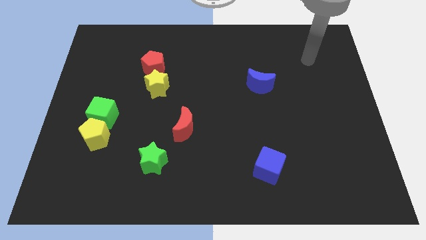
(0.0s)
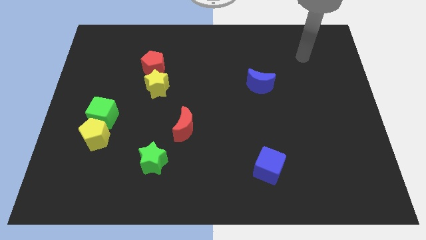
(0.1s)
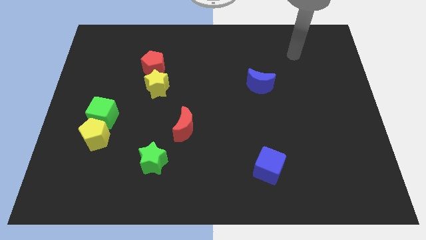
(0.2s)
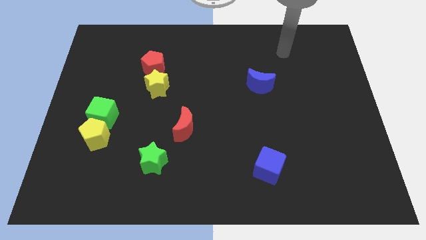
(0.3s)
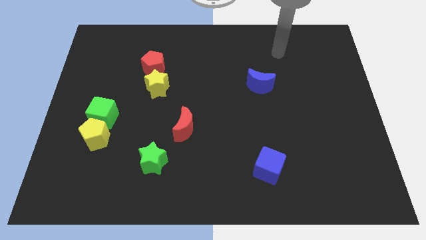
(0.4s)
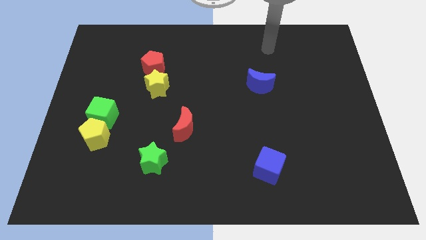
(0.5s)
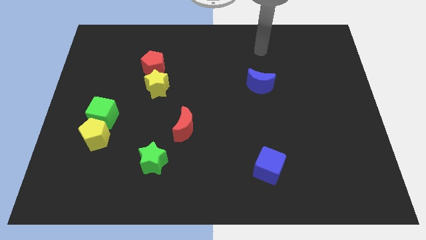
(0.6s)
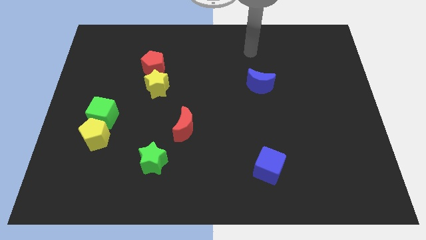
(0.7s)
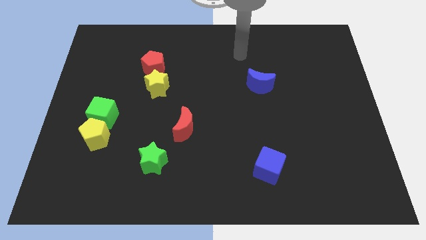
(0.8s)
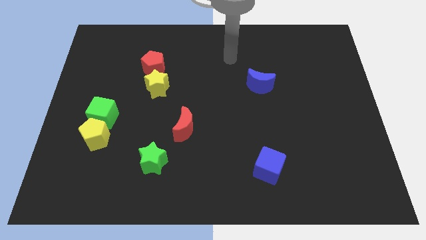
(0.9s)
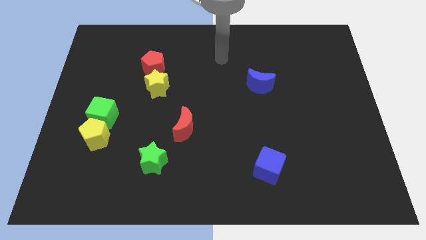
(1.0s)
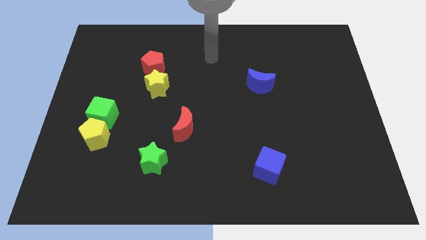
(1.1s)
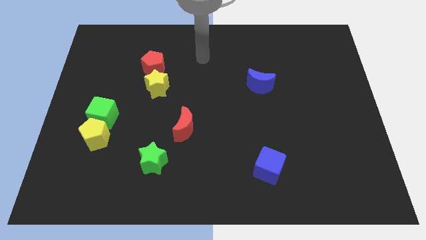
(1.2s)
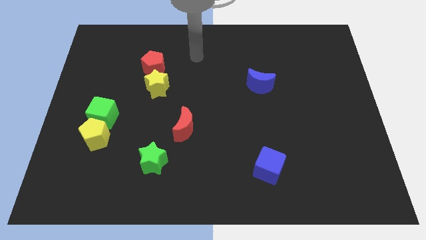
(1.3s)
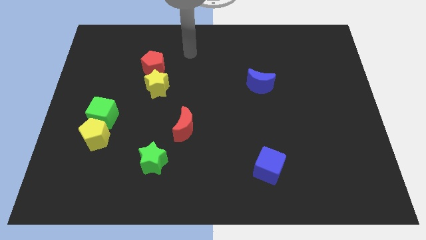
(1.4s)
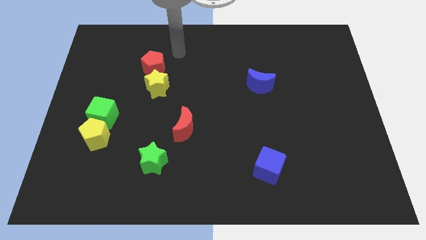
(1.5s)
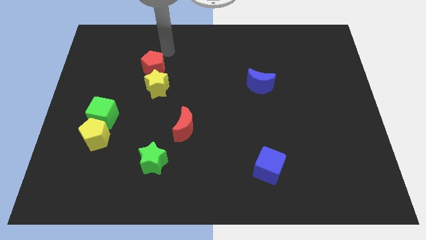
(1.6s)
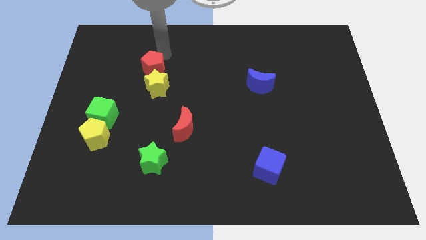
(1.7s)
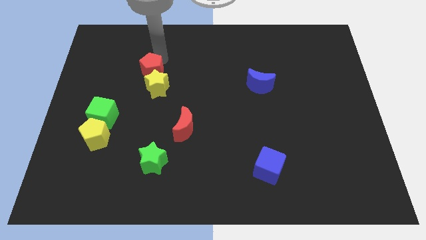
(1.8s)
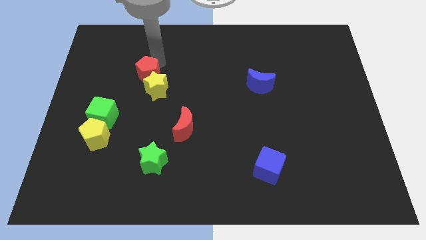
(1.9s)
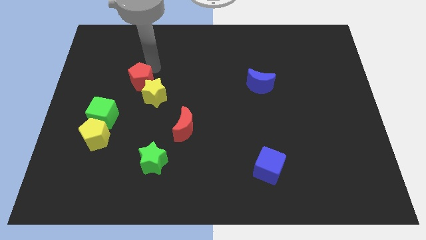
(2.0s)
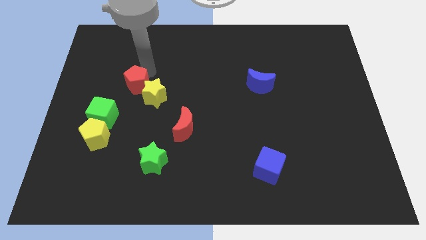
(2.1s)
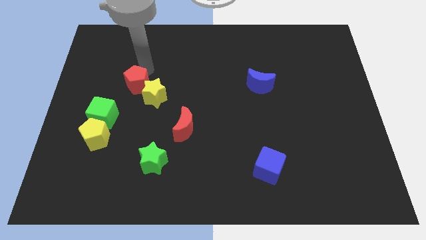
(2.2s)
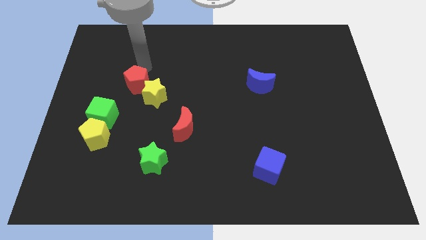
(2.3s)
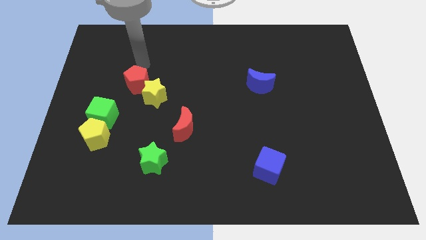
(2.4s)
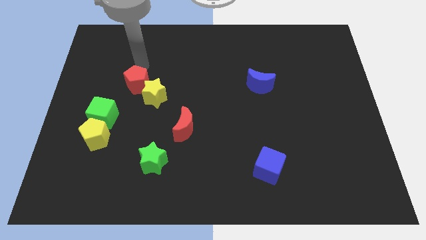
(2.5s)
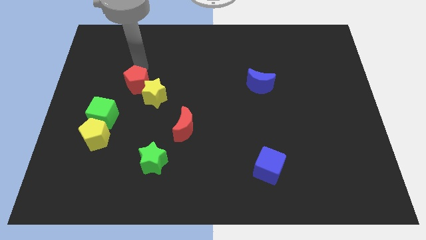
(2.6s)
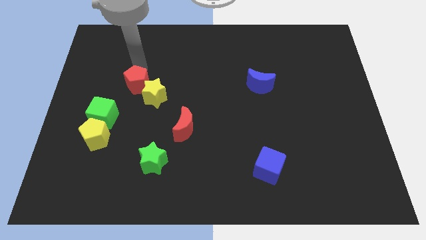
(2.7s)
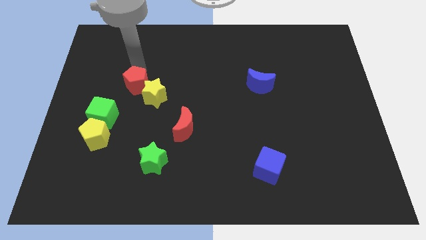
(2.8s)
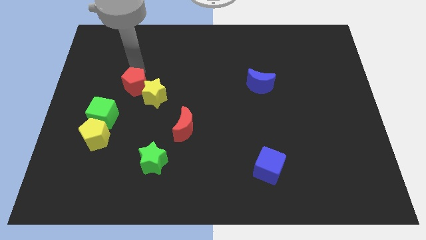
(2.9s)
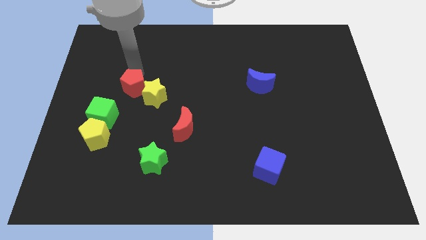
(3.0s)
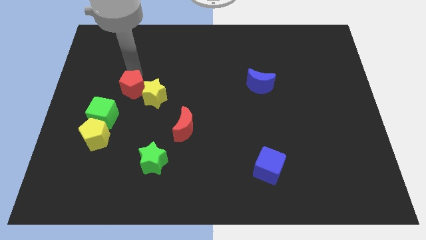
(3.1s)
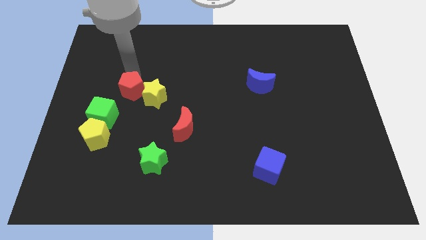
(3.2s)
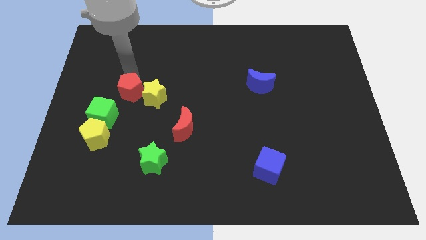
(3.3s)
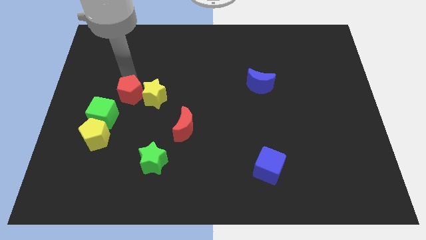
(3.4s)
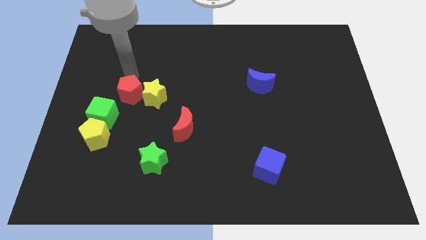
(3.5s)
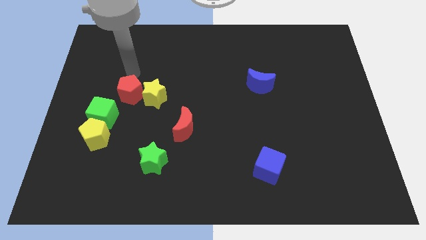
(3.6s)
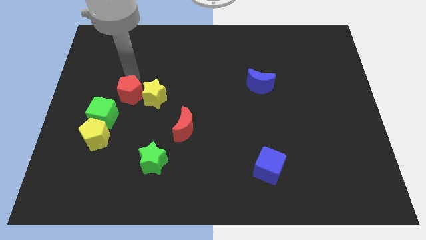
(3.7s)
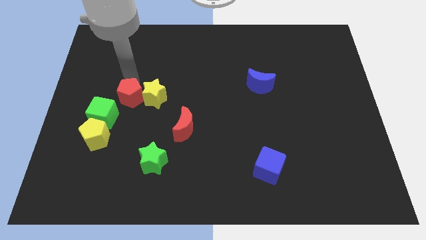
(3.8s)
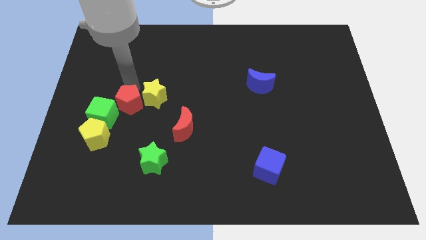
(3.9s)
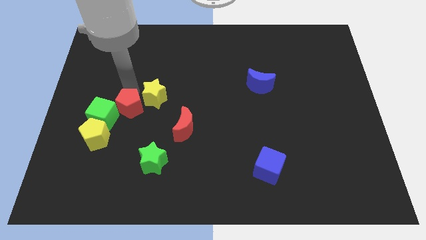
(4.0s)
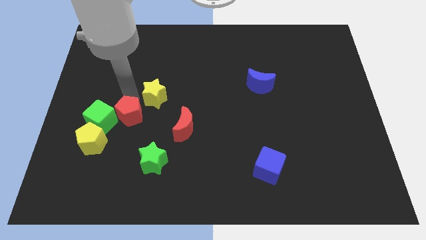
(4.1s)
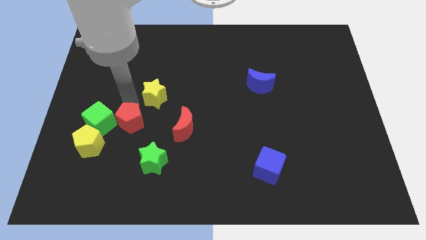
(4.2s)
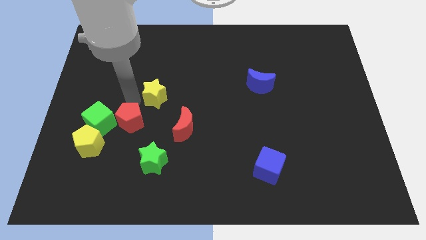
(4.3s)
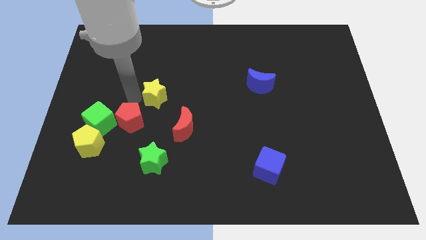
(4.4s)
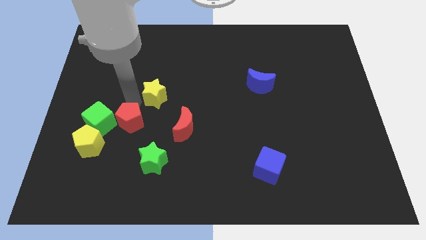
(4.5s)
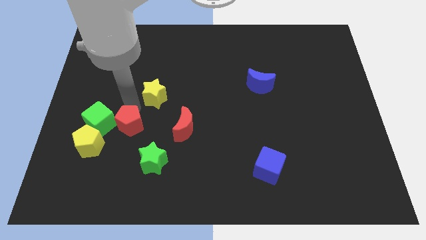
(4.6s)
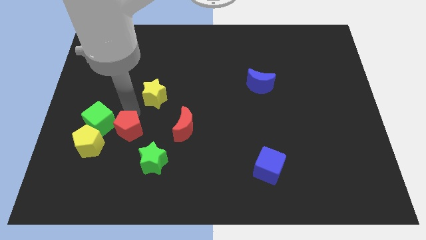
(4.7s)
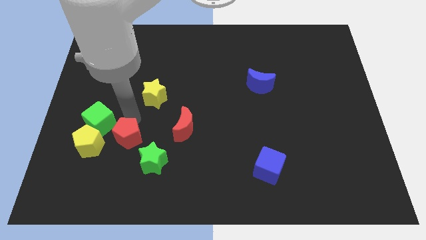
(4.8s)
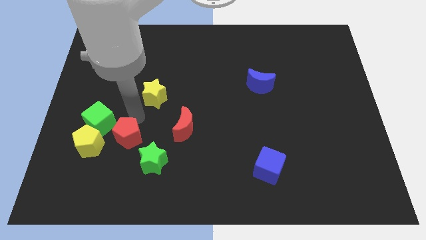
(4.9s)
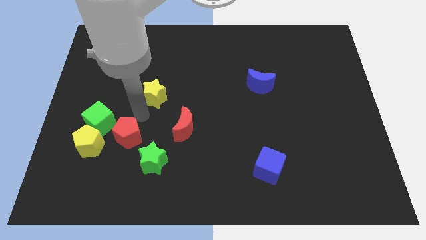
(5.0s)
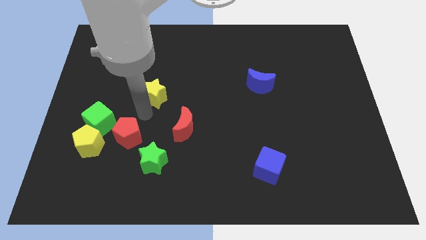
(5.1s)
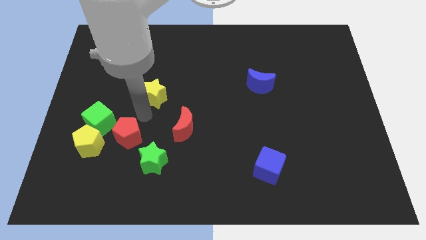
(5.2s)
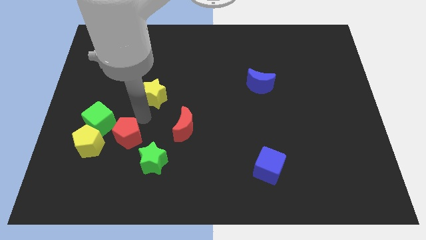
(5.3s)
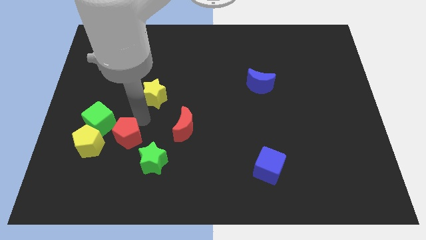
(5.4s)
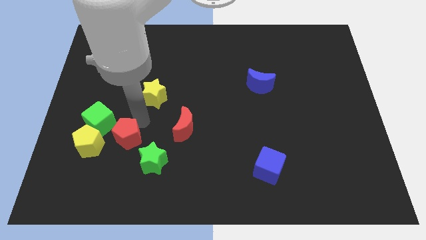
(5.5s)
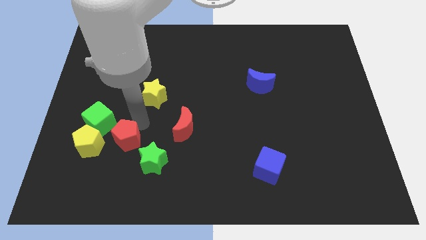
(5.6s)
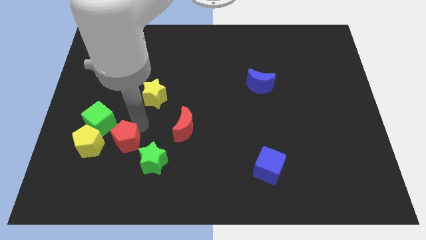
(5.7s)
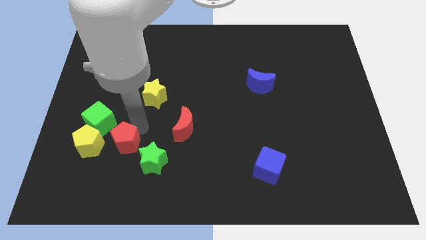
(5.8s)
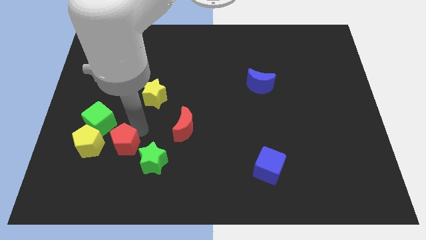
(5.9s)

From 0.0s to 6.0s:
move the red pentagon left of the green star

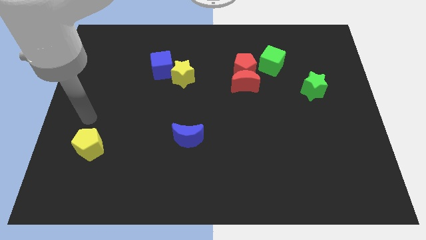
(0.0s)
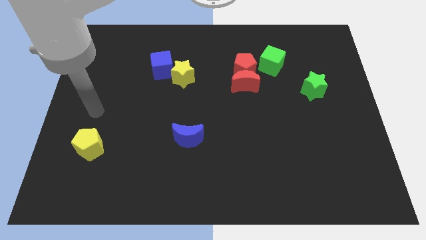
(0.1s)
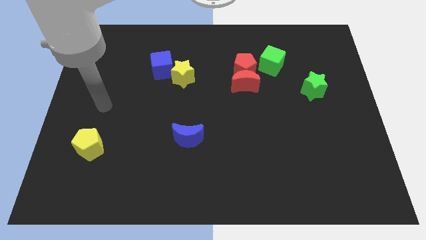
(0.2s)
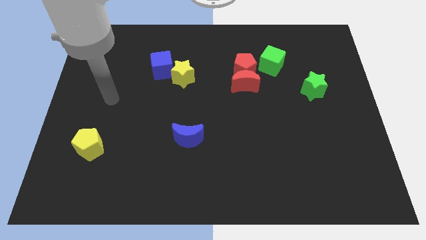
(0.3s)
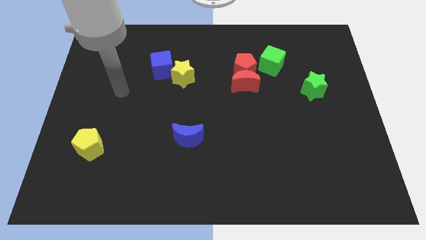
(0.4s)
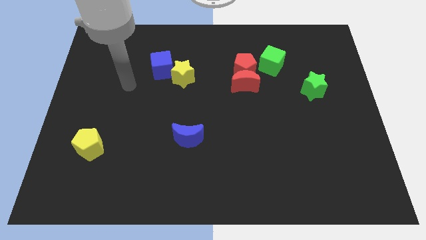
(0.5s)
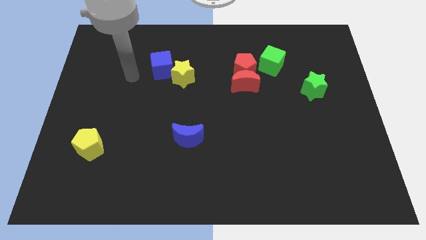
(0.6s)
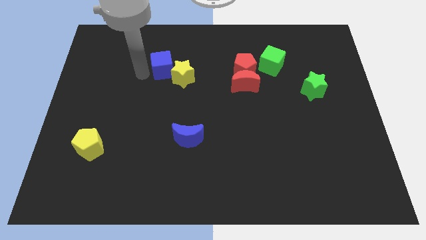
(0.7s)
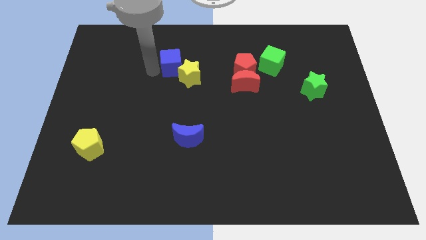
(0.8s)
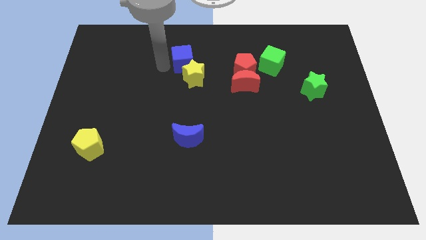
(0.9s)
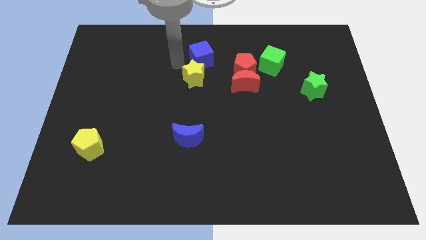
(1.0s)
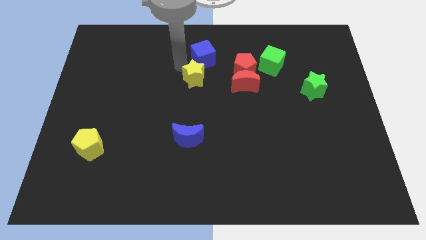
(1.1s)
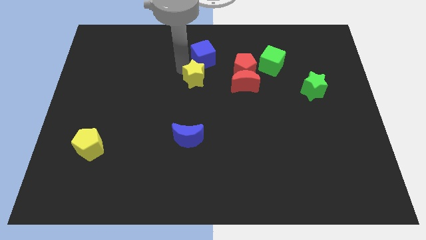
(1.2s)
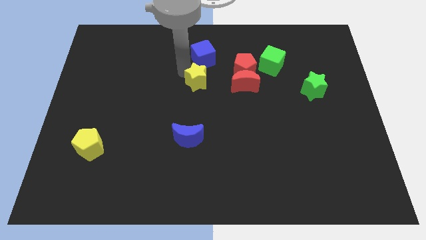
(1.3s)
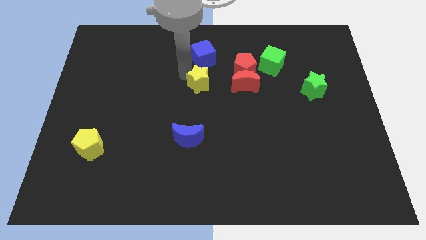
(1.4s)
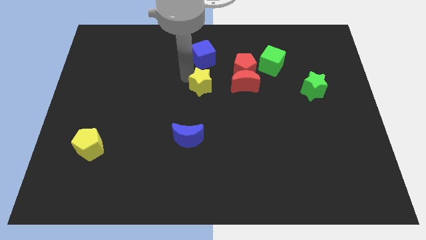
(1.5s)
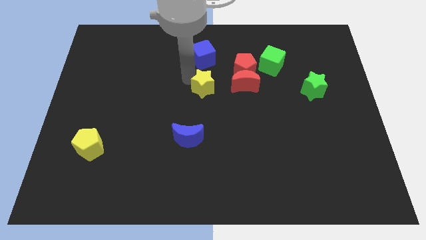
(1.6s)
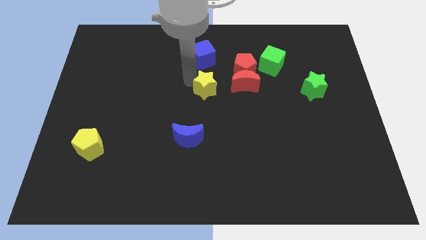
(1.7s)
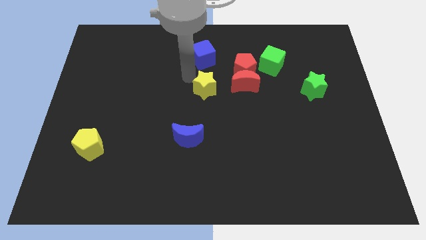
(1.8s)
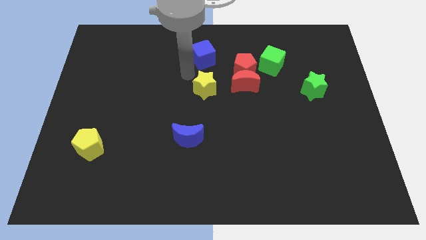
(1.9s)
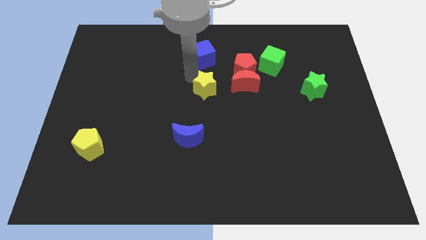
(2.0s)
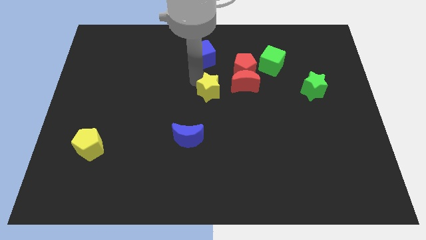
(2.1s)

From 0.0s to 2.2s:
push the yellow star to the bottom left of the red moon
